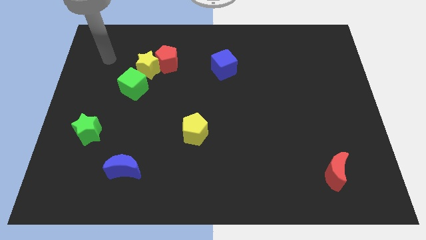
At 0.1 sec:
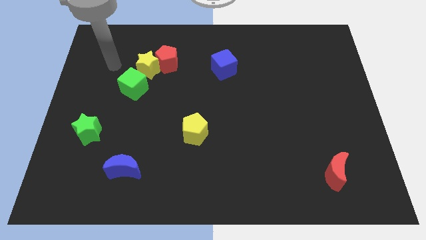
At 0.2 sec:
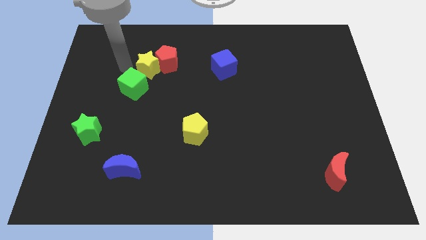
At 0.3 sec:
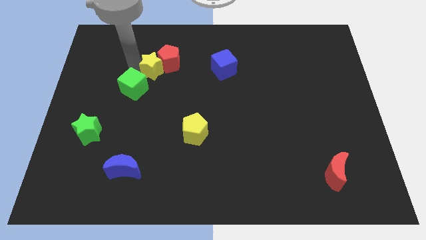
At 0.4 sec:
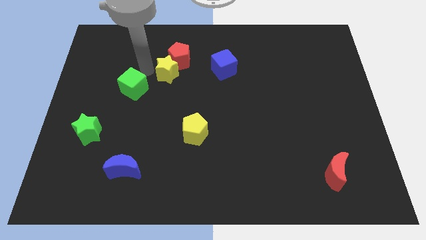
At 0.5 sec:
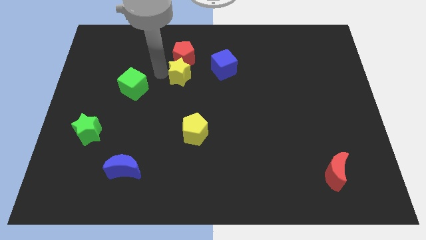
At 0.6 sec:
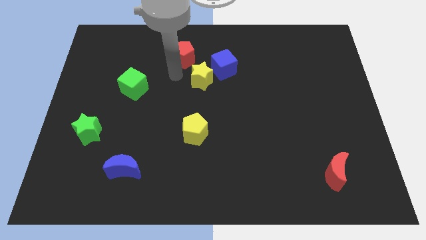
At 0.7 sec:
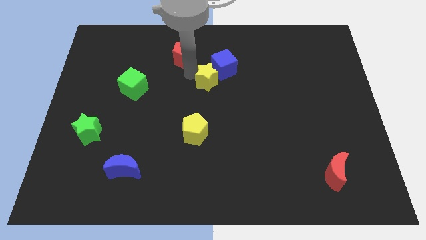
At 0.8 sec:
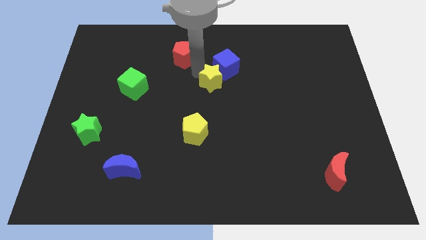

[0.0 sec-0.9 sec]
move the red pentagon away from the yellow star

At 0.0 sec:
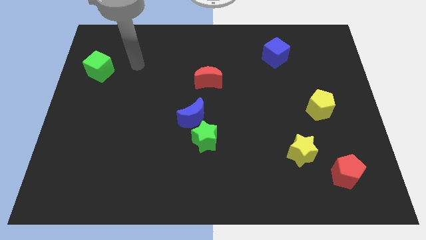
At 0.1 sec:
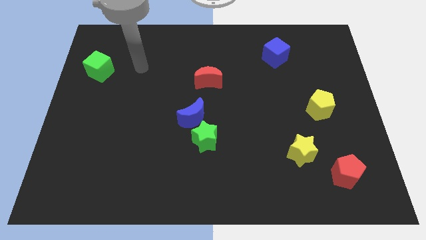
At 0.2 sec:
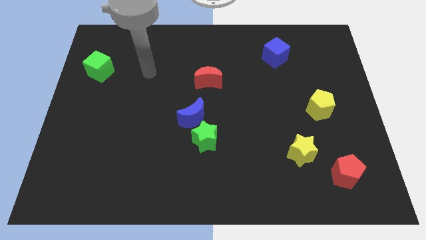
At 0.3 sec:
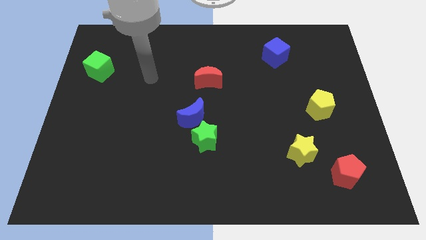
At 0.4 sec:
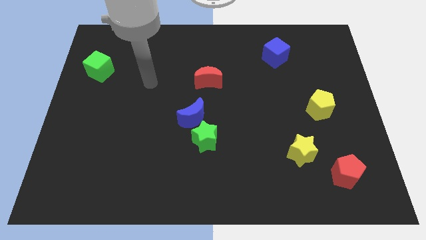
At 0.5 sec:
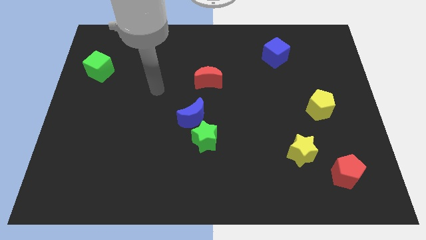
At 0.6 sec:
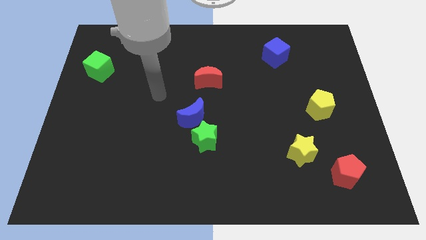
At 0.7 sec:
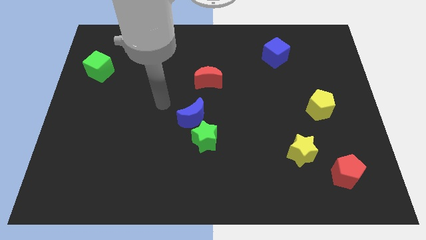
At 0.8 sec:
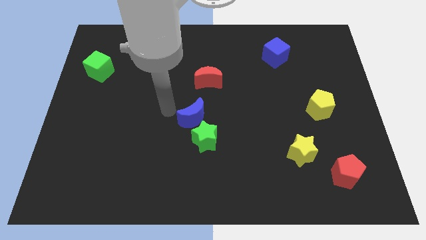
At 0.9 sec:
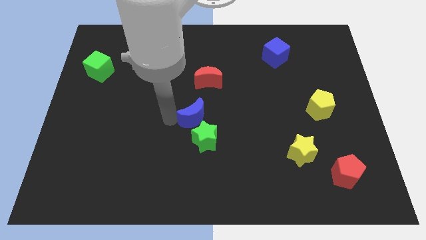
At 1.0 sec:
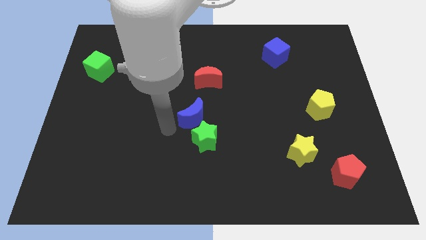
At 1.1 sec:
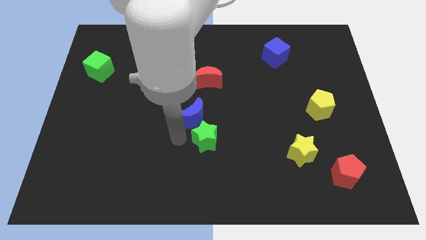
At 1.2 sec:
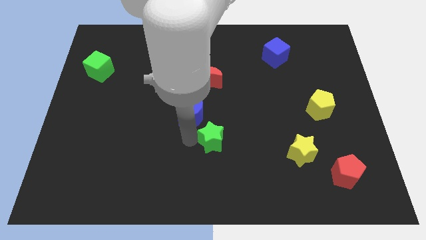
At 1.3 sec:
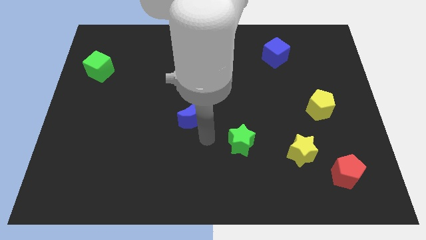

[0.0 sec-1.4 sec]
move the blue moon away from the green star

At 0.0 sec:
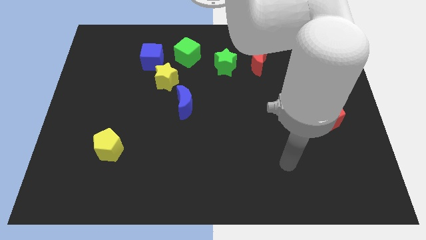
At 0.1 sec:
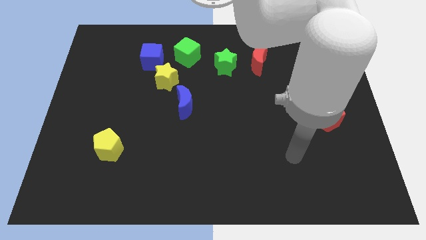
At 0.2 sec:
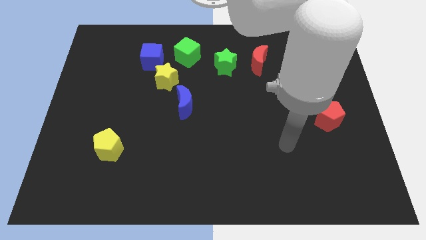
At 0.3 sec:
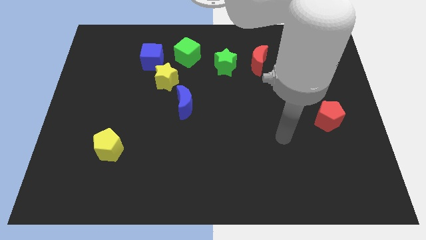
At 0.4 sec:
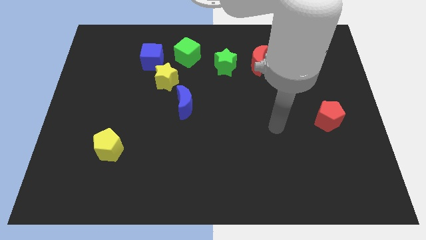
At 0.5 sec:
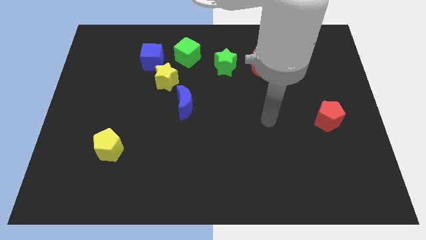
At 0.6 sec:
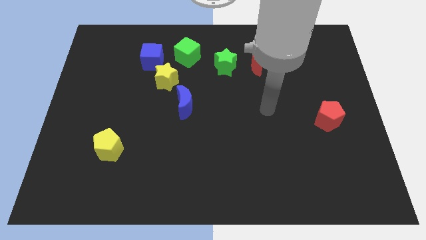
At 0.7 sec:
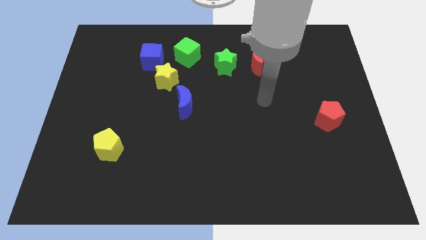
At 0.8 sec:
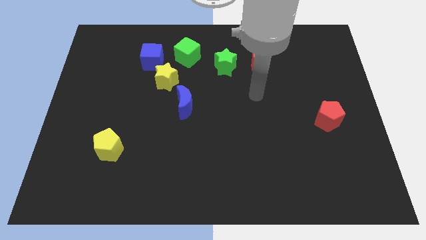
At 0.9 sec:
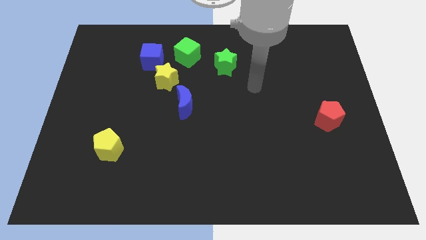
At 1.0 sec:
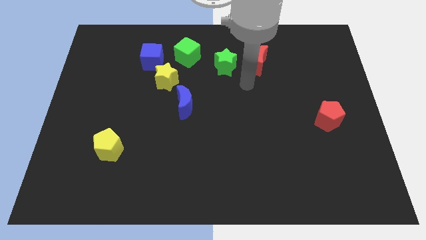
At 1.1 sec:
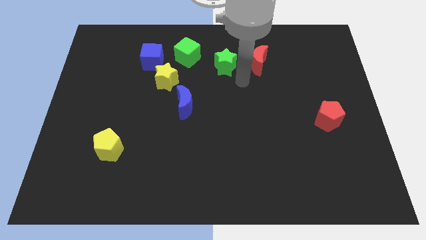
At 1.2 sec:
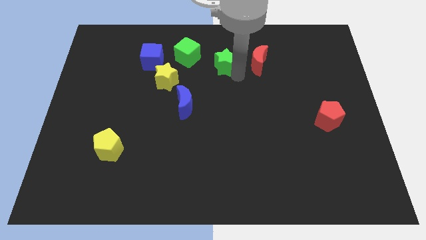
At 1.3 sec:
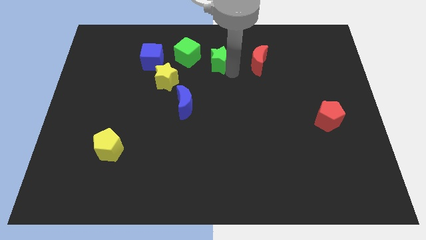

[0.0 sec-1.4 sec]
move the red moon away from the green star

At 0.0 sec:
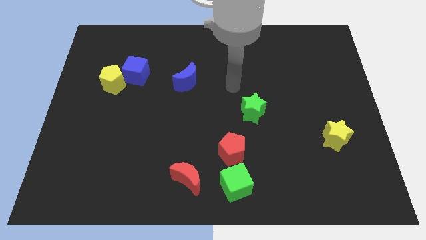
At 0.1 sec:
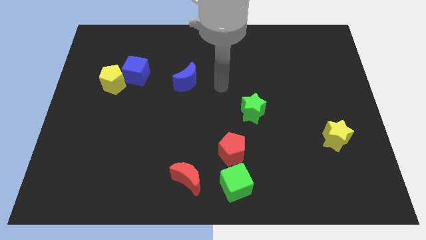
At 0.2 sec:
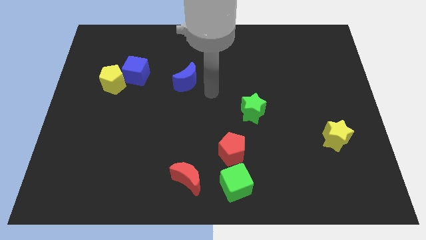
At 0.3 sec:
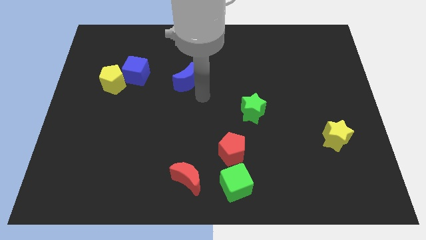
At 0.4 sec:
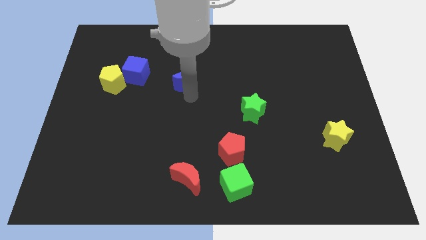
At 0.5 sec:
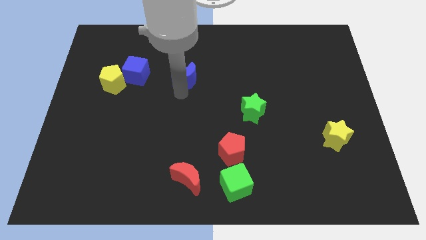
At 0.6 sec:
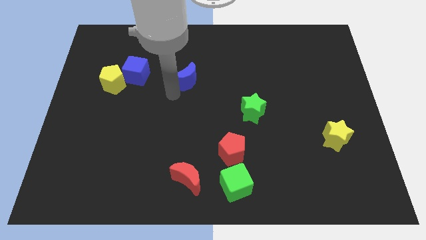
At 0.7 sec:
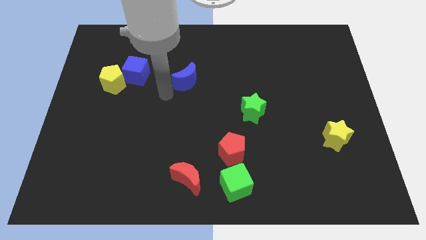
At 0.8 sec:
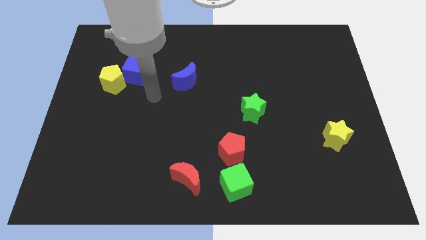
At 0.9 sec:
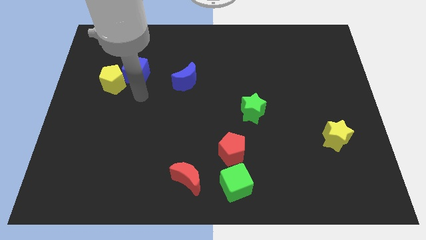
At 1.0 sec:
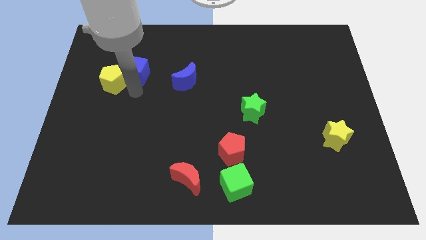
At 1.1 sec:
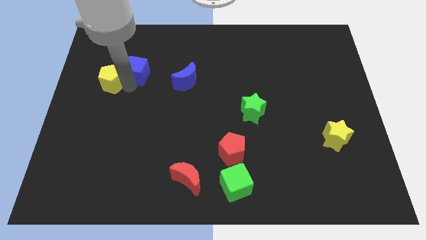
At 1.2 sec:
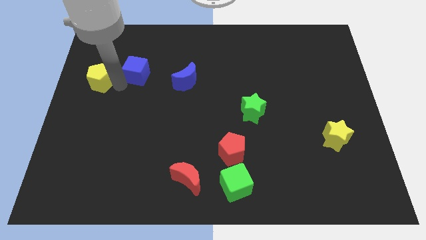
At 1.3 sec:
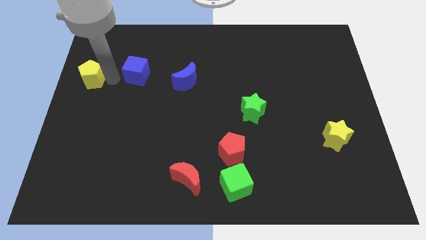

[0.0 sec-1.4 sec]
separate the blue cube from the yellow pentagon

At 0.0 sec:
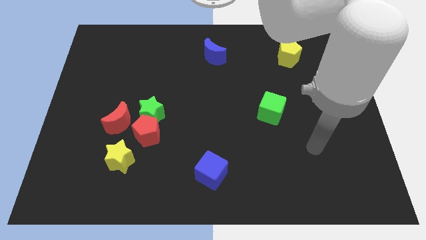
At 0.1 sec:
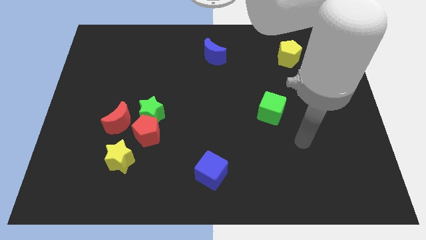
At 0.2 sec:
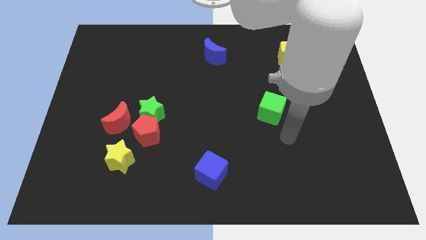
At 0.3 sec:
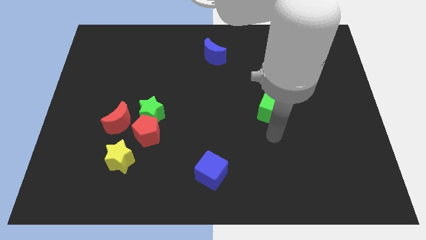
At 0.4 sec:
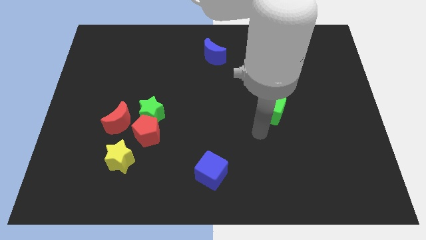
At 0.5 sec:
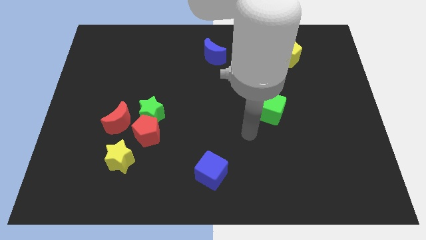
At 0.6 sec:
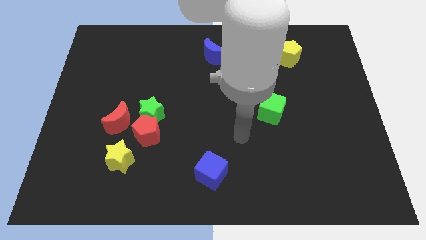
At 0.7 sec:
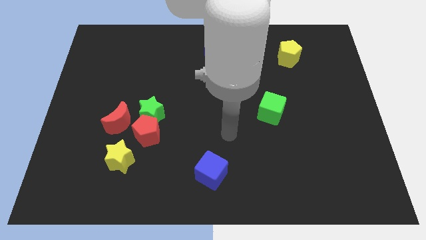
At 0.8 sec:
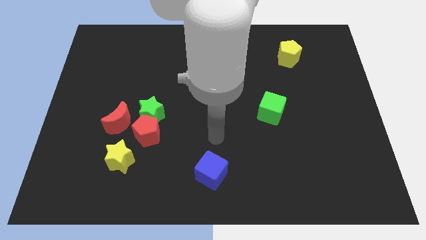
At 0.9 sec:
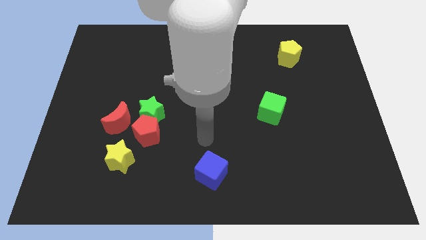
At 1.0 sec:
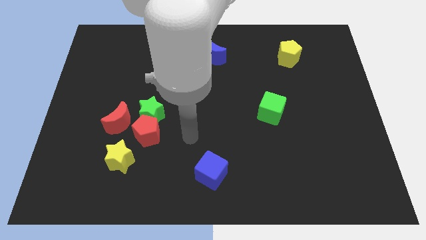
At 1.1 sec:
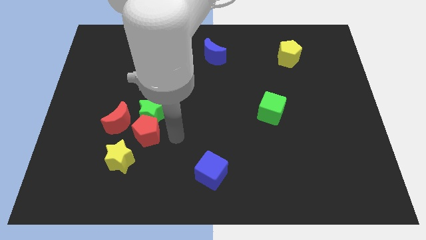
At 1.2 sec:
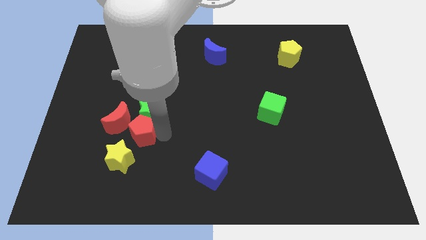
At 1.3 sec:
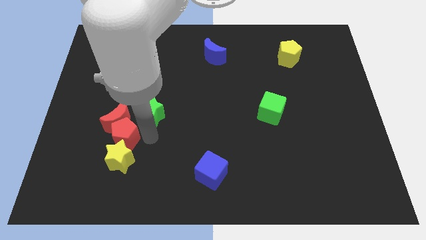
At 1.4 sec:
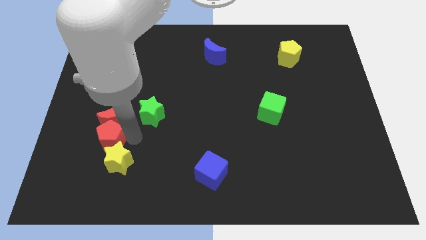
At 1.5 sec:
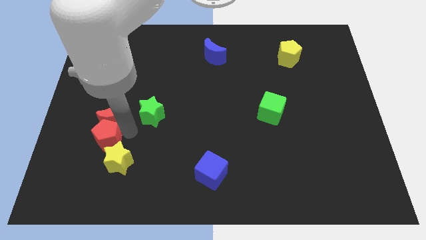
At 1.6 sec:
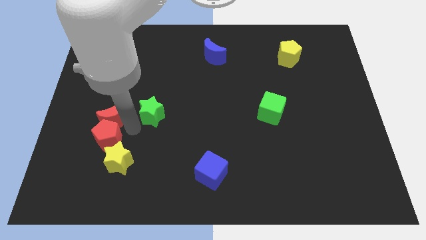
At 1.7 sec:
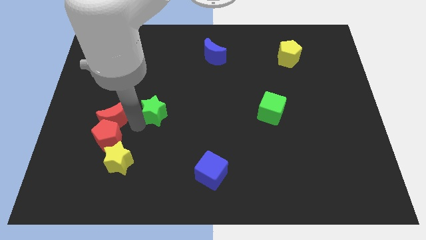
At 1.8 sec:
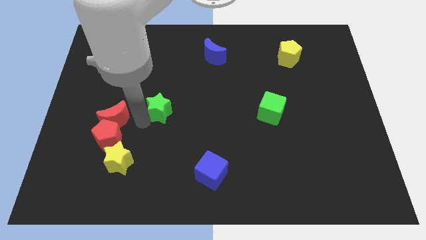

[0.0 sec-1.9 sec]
move the green star away from the red pentagon and red moon

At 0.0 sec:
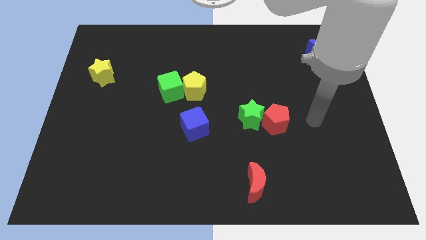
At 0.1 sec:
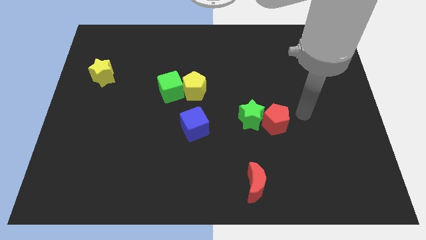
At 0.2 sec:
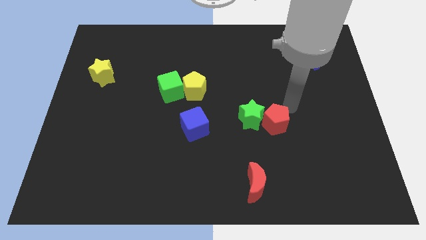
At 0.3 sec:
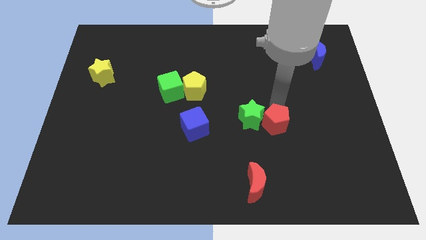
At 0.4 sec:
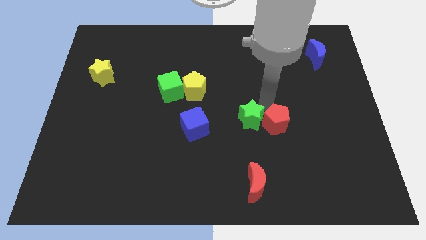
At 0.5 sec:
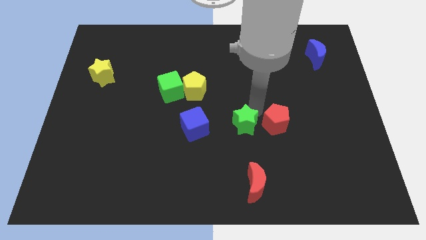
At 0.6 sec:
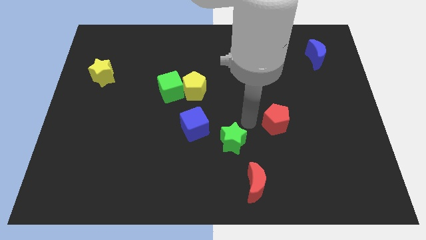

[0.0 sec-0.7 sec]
pull the red pentagon apart from the green star

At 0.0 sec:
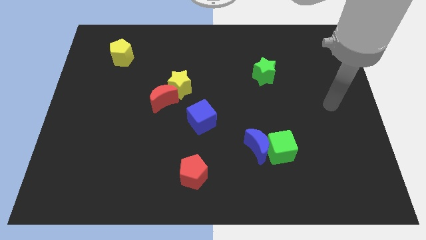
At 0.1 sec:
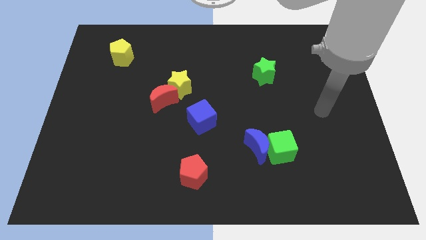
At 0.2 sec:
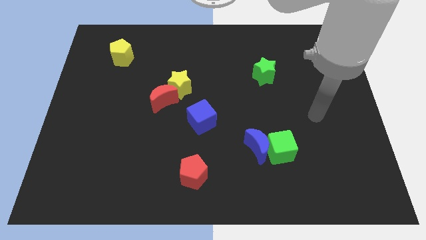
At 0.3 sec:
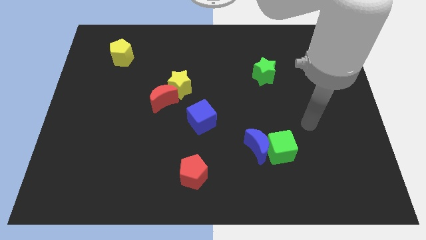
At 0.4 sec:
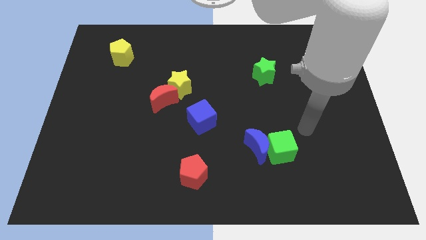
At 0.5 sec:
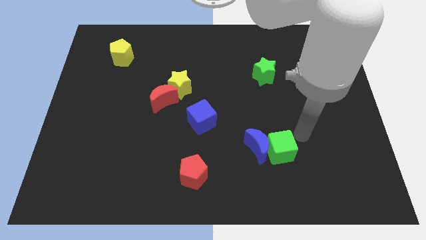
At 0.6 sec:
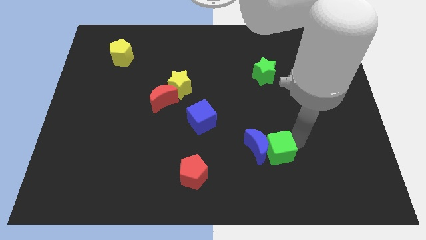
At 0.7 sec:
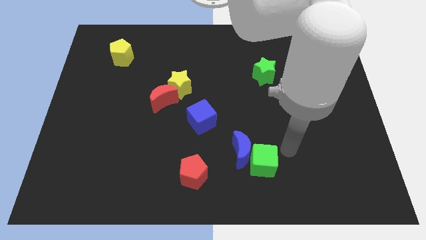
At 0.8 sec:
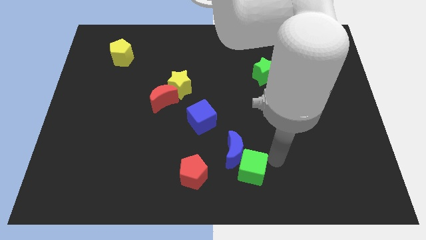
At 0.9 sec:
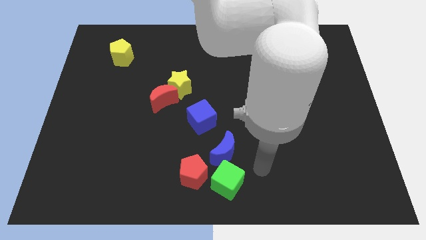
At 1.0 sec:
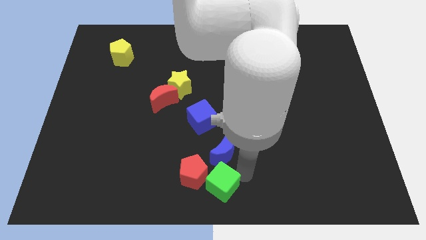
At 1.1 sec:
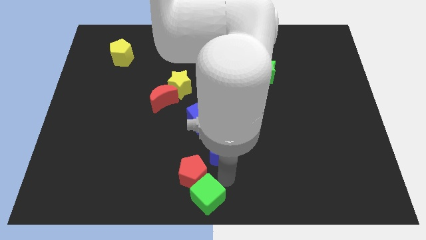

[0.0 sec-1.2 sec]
separate the blue moon from the green cube

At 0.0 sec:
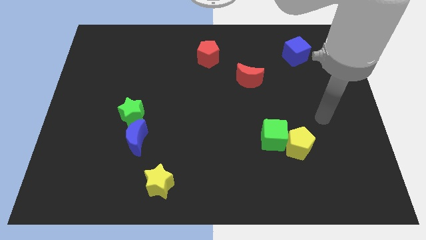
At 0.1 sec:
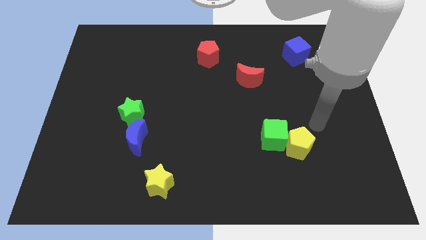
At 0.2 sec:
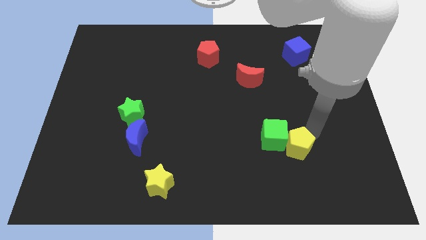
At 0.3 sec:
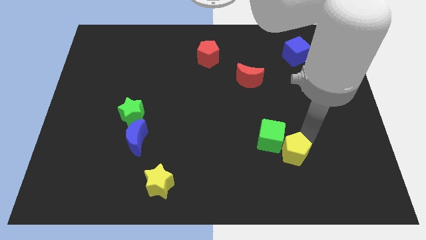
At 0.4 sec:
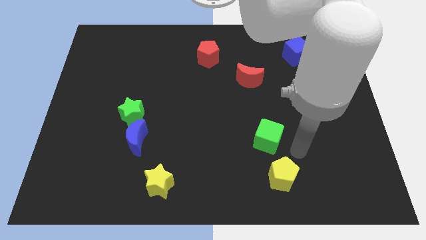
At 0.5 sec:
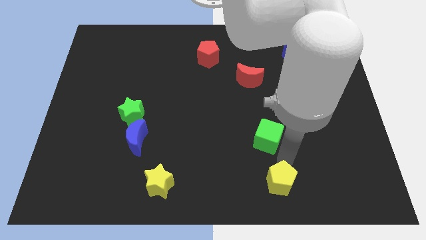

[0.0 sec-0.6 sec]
separate the green cube from the yellow pentagon
